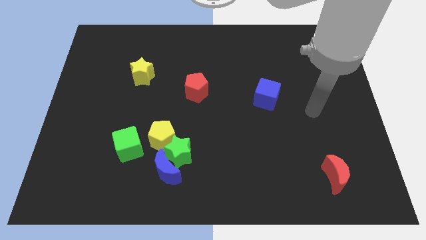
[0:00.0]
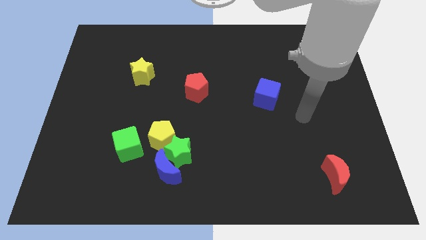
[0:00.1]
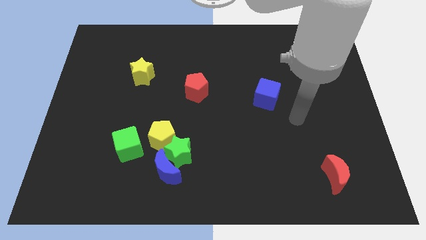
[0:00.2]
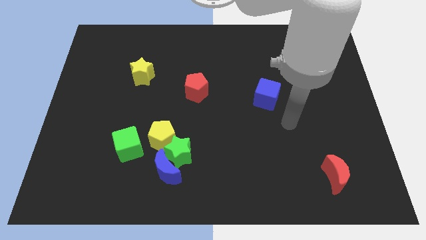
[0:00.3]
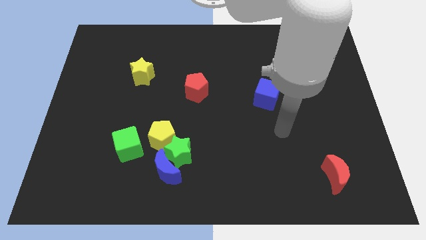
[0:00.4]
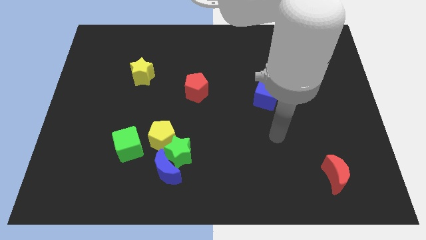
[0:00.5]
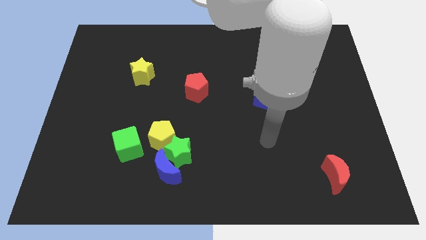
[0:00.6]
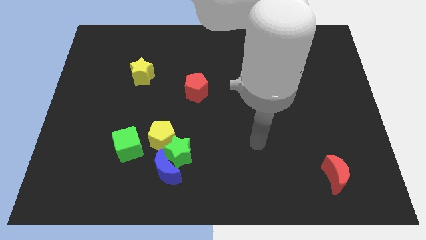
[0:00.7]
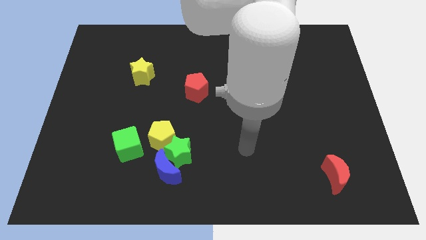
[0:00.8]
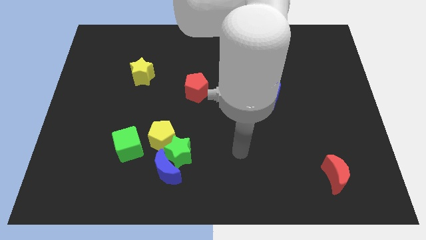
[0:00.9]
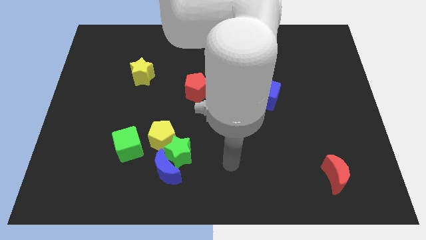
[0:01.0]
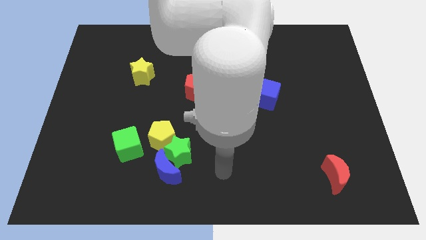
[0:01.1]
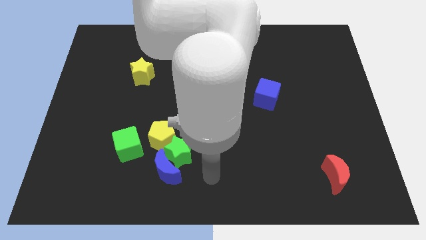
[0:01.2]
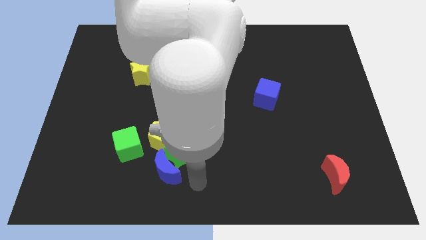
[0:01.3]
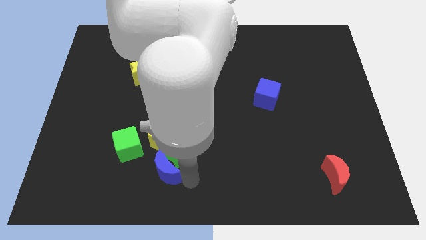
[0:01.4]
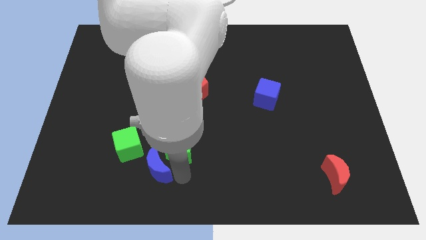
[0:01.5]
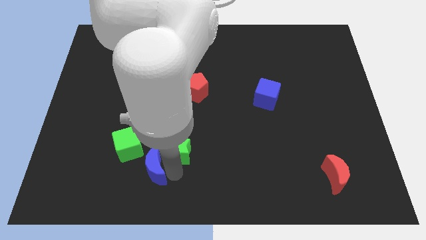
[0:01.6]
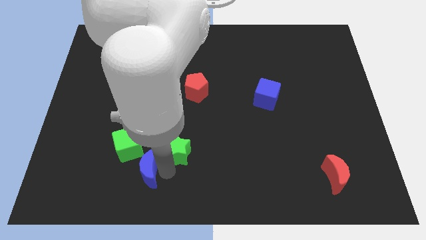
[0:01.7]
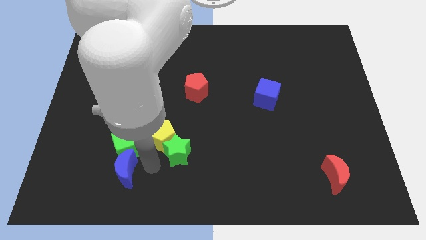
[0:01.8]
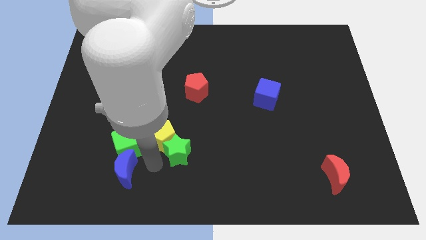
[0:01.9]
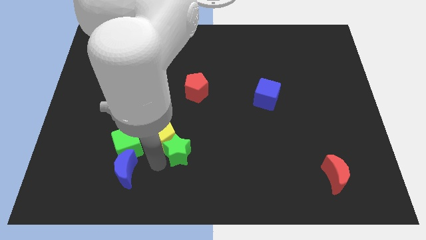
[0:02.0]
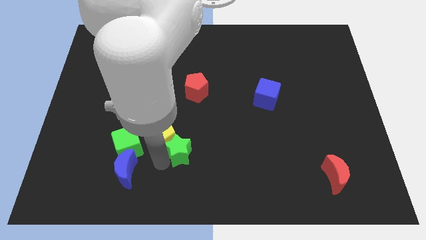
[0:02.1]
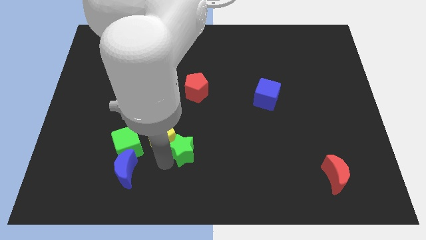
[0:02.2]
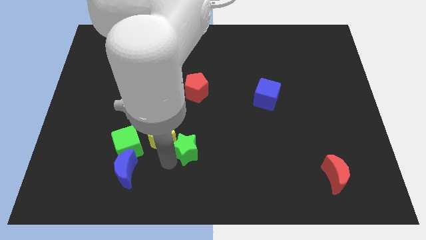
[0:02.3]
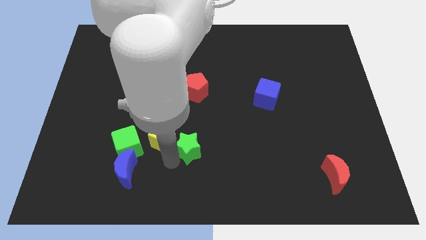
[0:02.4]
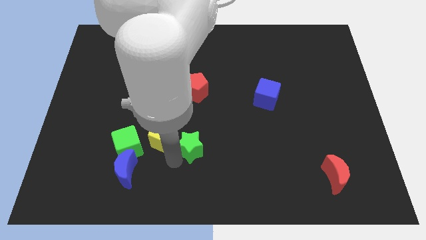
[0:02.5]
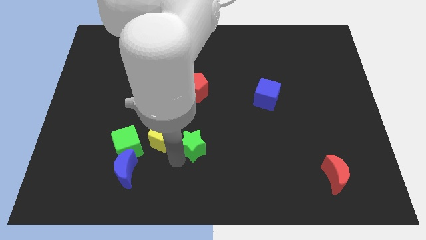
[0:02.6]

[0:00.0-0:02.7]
pull the green star apart from the blue moon and yellow pentagon

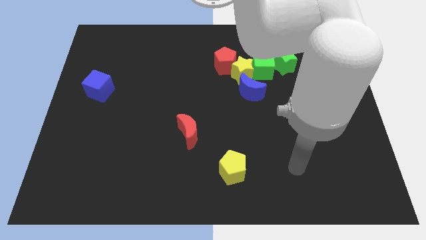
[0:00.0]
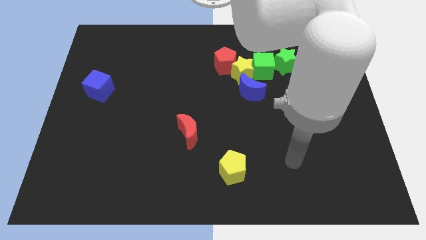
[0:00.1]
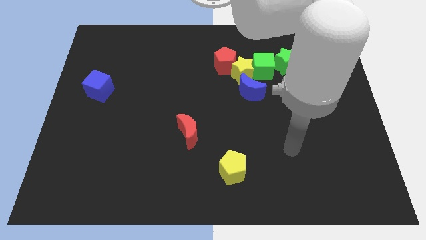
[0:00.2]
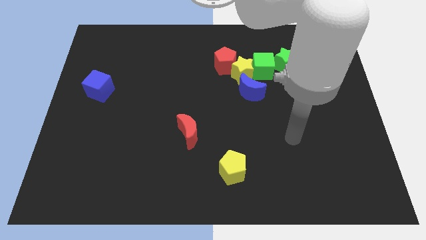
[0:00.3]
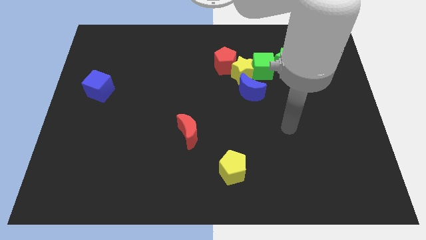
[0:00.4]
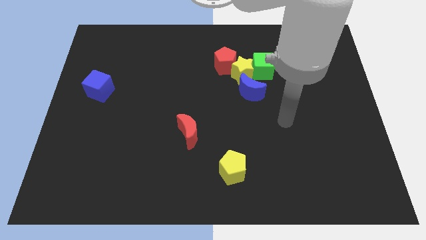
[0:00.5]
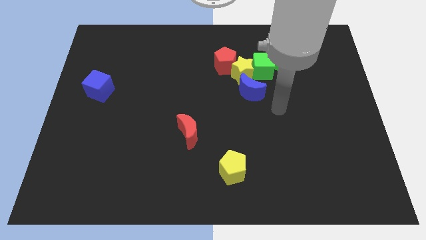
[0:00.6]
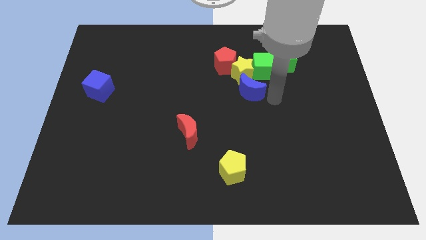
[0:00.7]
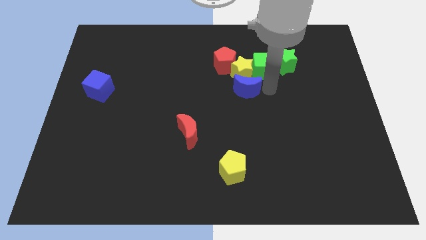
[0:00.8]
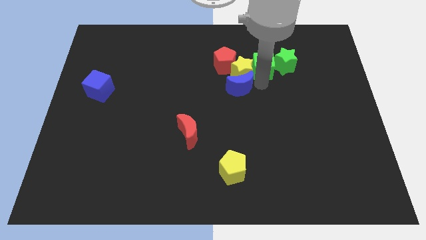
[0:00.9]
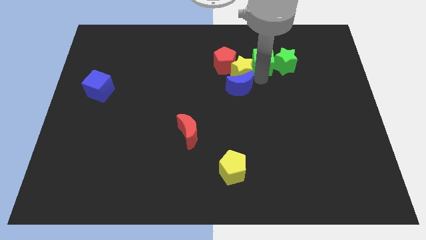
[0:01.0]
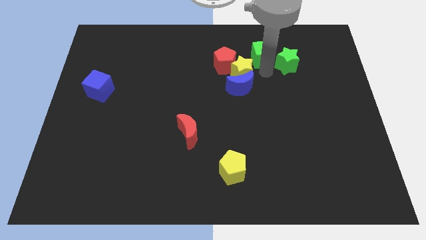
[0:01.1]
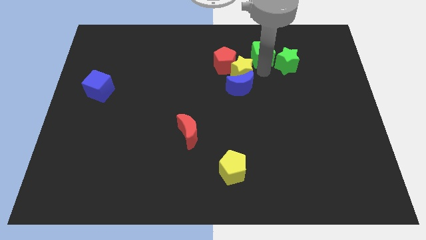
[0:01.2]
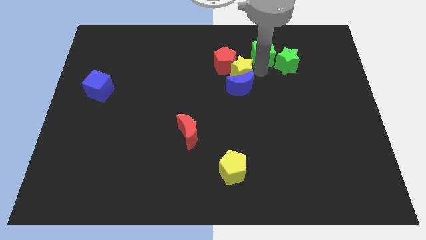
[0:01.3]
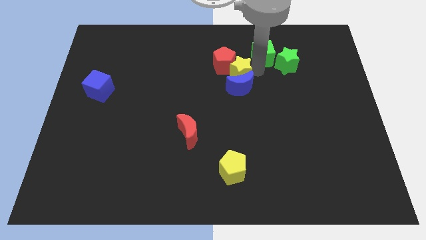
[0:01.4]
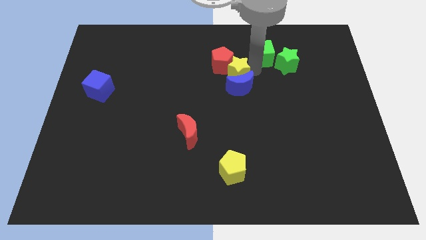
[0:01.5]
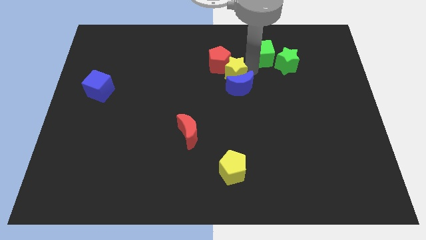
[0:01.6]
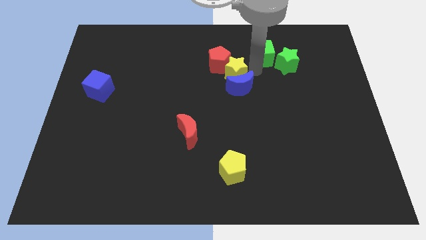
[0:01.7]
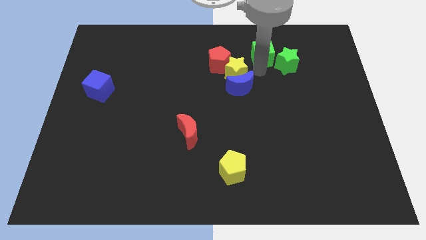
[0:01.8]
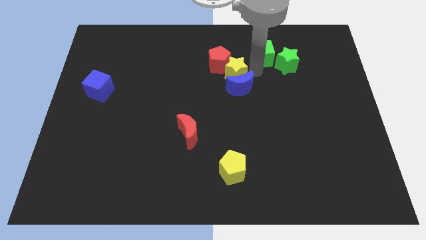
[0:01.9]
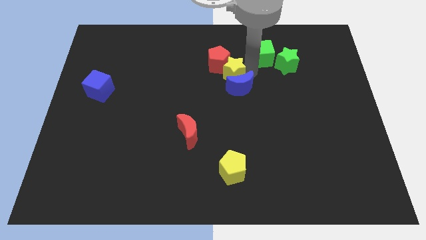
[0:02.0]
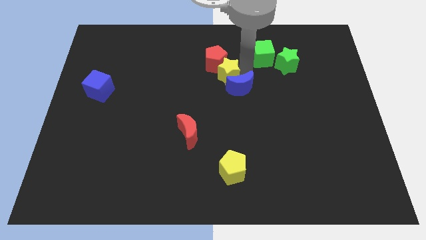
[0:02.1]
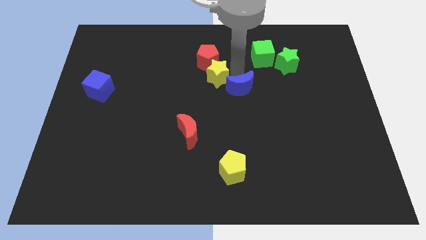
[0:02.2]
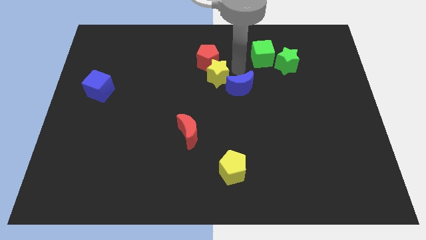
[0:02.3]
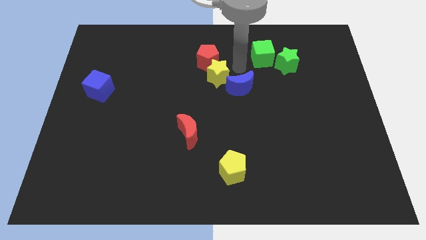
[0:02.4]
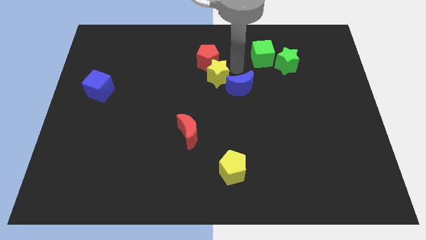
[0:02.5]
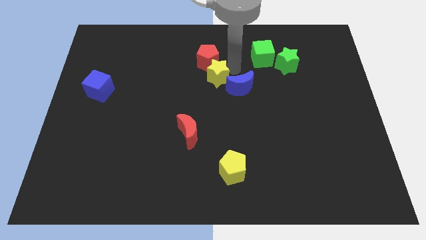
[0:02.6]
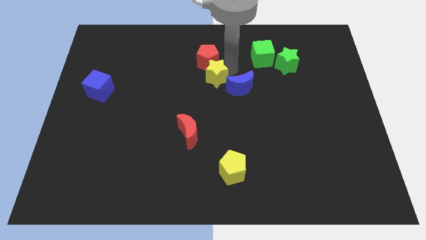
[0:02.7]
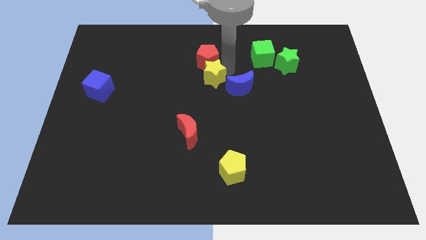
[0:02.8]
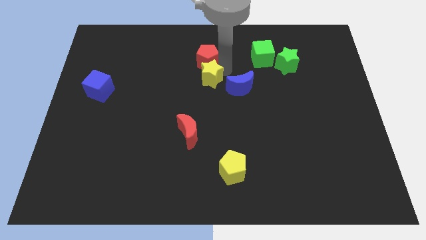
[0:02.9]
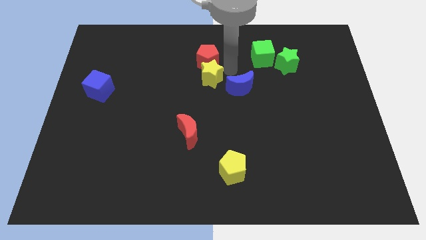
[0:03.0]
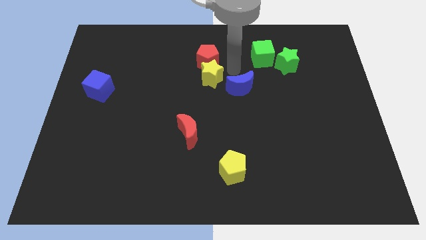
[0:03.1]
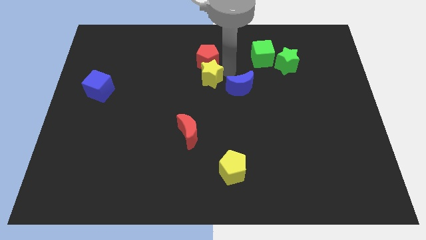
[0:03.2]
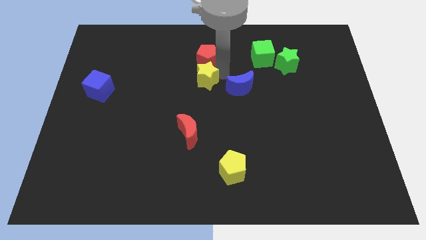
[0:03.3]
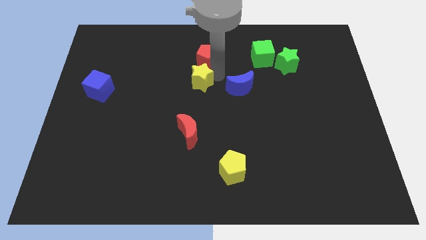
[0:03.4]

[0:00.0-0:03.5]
move the yellow star away from the red pentagon, green cube, and blue moon

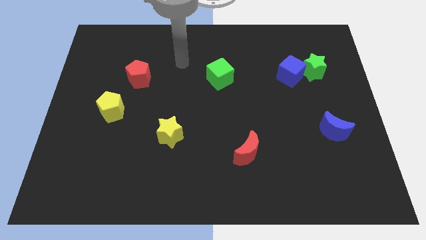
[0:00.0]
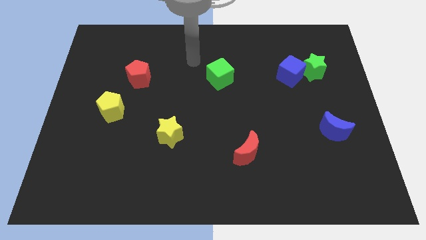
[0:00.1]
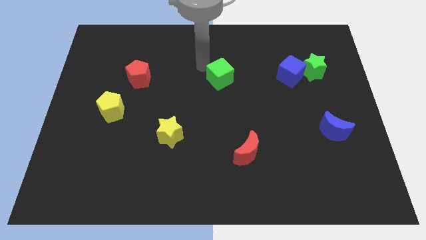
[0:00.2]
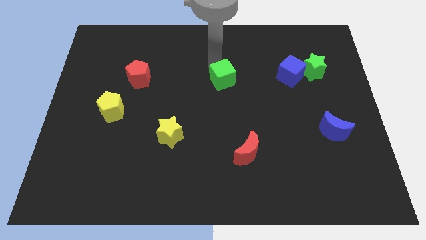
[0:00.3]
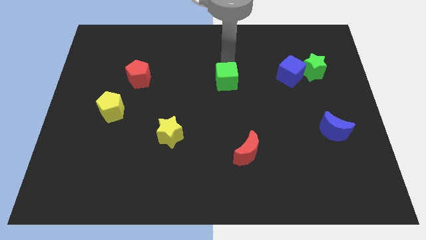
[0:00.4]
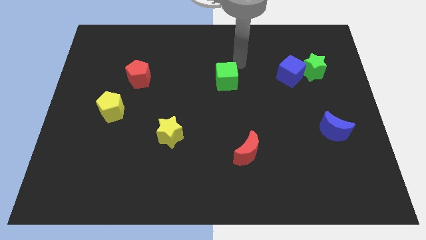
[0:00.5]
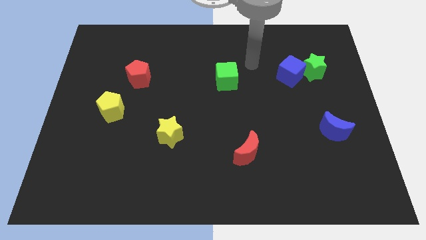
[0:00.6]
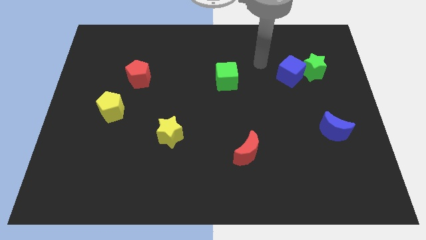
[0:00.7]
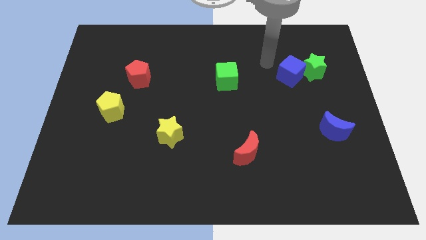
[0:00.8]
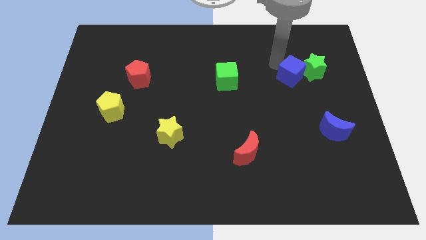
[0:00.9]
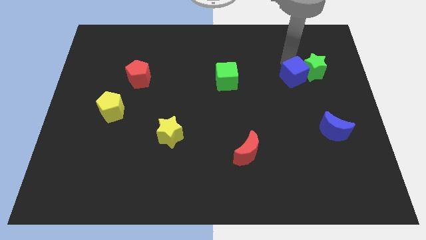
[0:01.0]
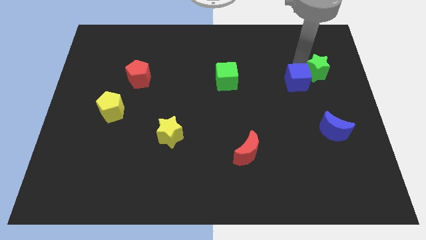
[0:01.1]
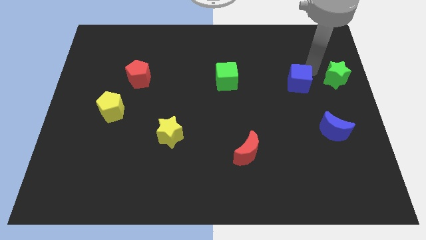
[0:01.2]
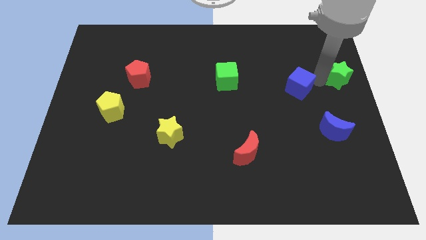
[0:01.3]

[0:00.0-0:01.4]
pull the blue cube apart from the green star

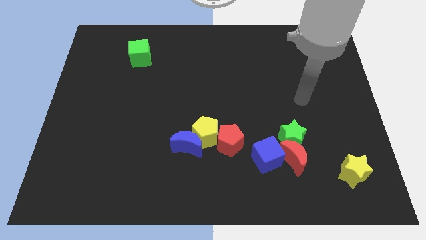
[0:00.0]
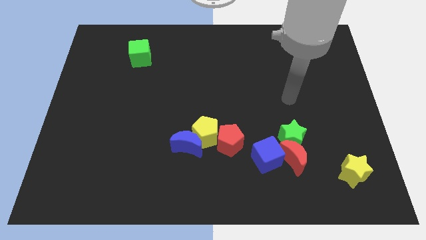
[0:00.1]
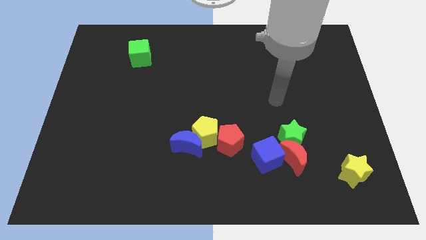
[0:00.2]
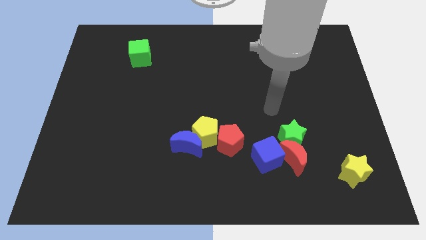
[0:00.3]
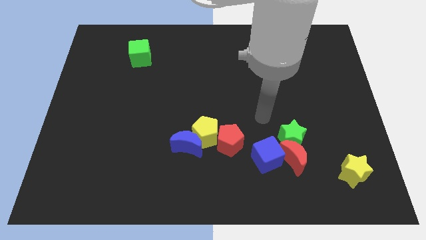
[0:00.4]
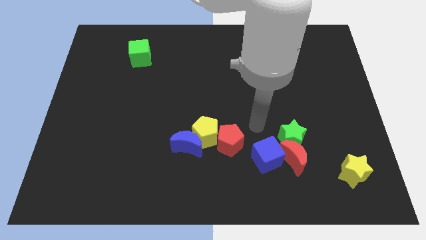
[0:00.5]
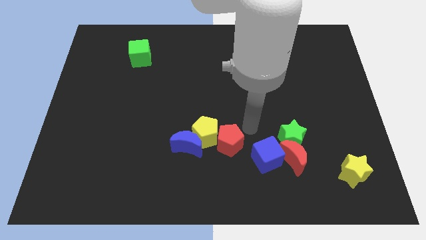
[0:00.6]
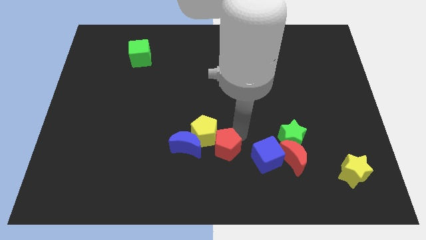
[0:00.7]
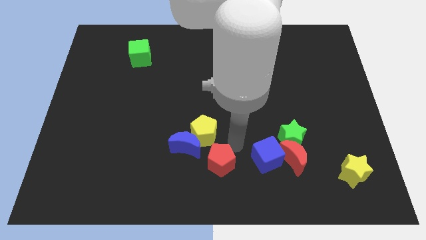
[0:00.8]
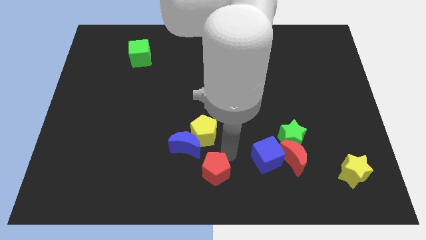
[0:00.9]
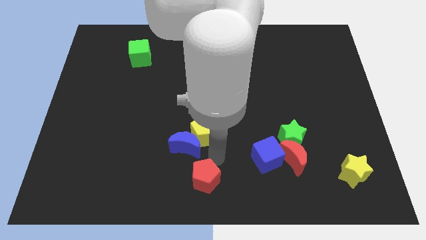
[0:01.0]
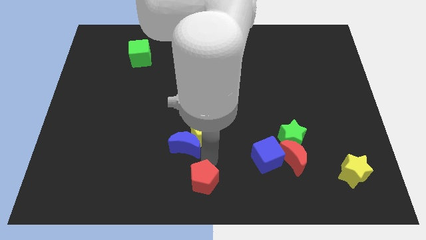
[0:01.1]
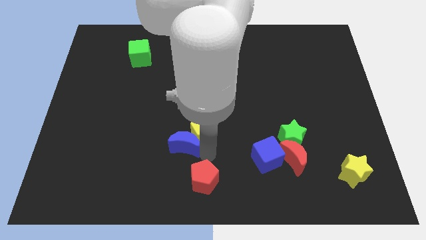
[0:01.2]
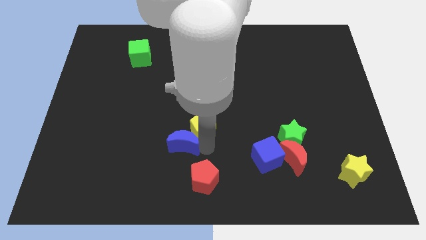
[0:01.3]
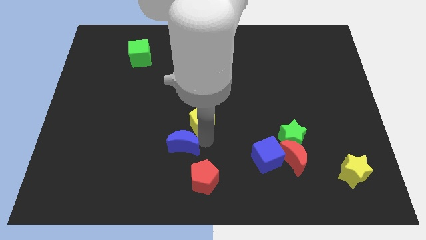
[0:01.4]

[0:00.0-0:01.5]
pull the yellow pentagon apart from the blue moon and red pentagon

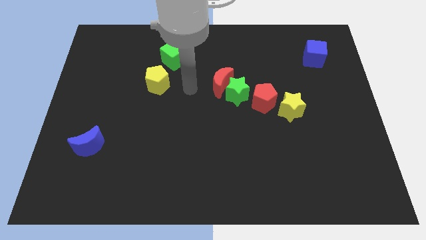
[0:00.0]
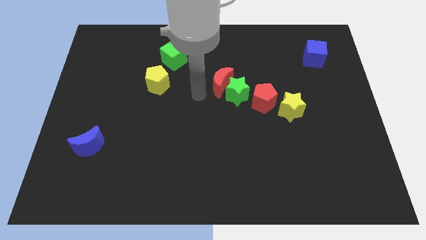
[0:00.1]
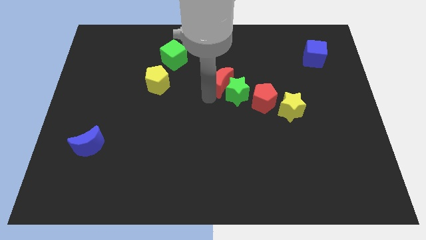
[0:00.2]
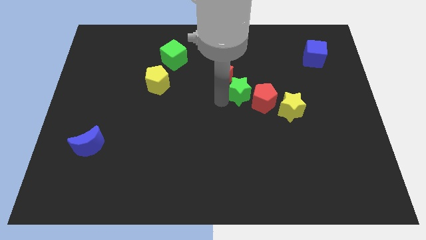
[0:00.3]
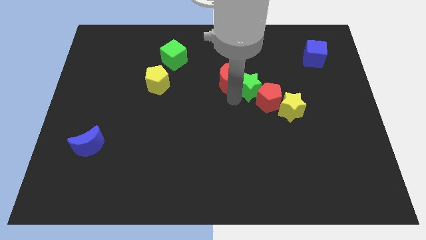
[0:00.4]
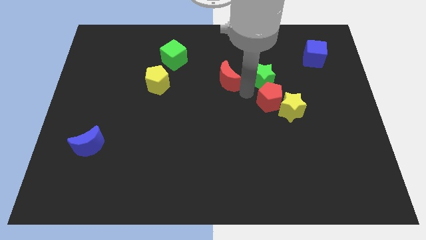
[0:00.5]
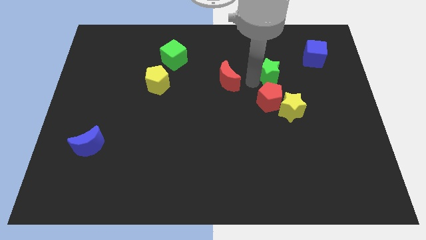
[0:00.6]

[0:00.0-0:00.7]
move the red moon away from the green star
